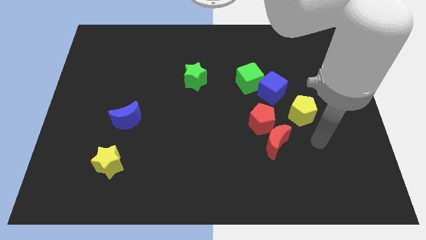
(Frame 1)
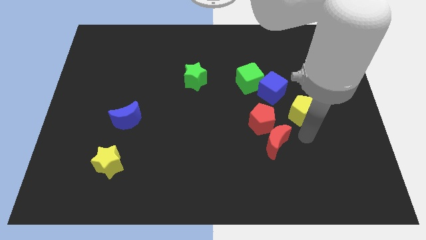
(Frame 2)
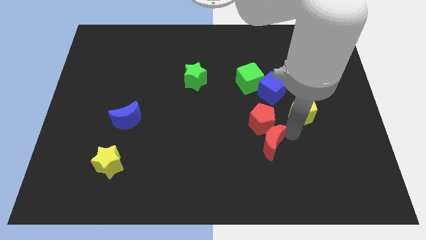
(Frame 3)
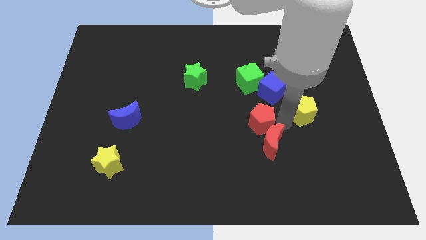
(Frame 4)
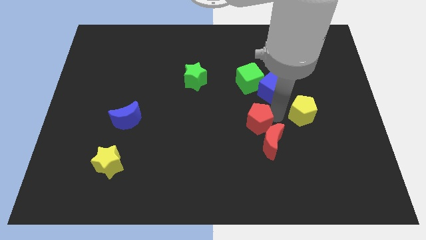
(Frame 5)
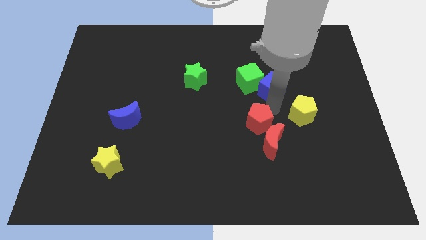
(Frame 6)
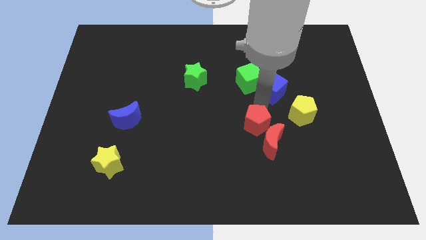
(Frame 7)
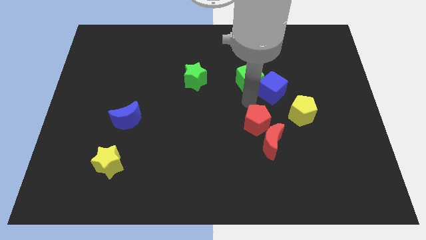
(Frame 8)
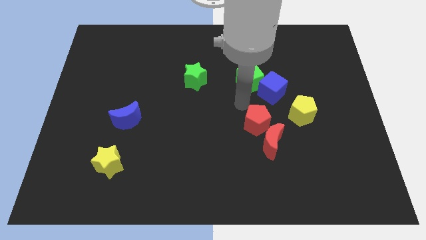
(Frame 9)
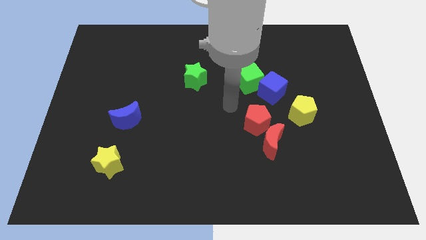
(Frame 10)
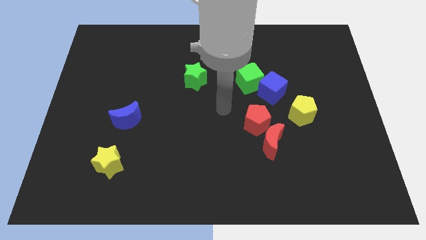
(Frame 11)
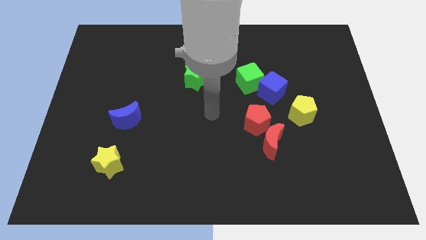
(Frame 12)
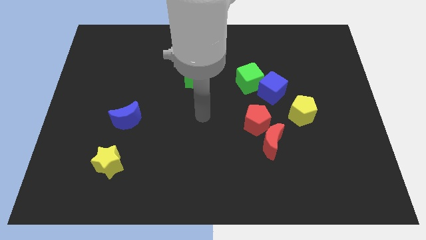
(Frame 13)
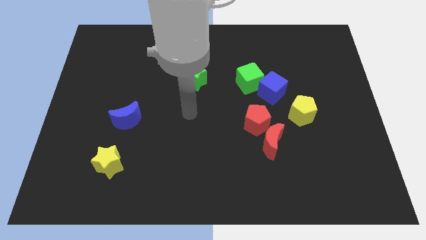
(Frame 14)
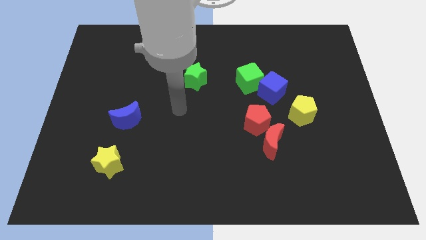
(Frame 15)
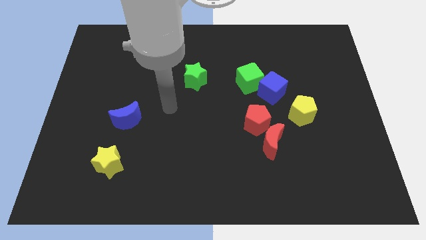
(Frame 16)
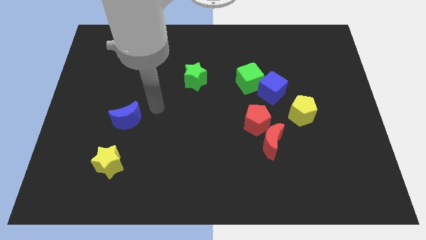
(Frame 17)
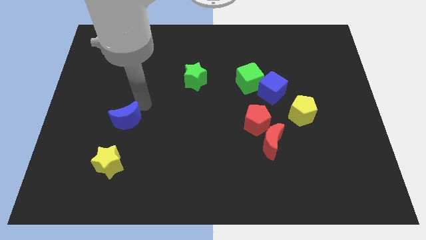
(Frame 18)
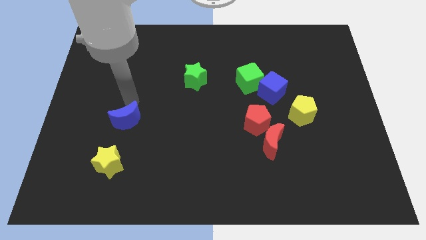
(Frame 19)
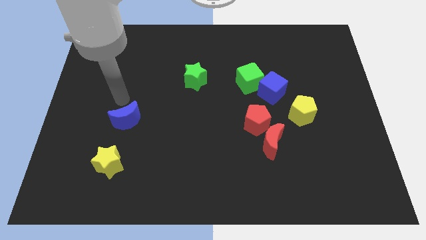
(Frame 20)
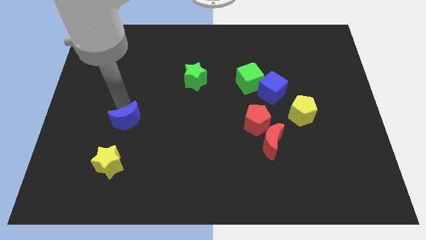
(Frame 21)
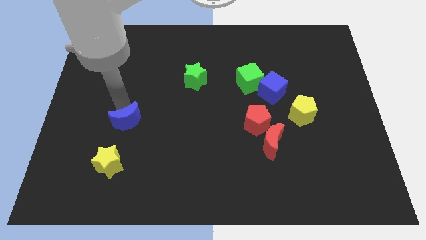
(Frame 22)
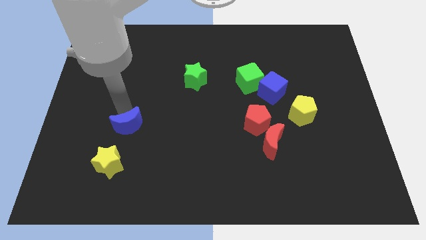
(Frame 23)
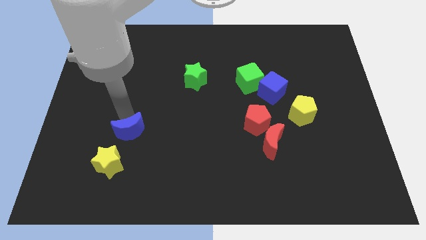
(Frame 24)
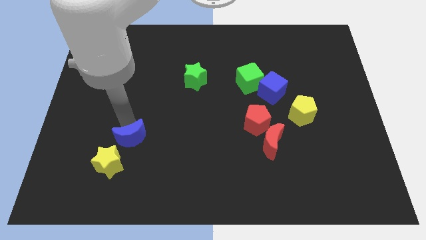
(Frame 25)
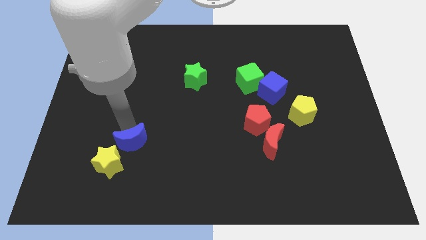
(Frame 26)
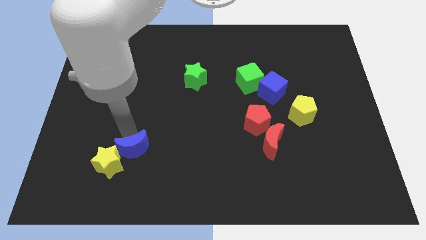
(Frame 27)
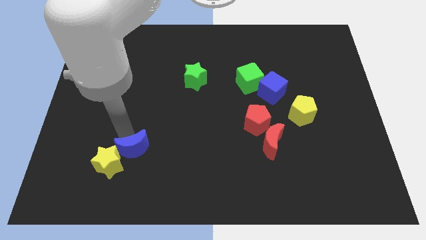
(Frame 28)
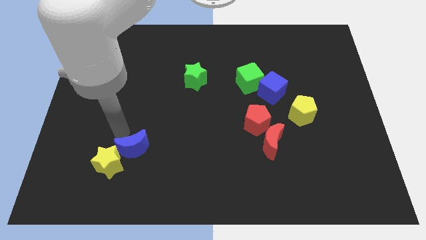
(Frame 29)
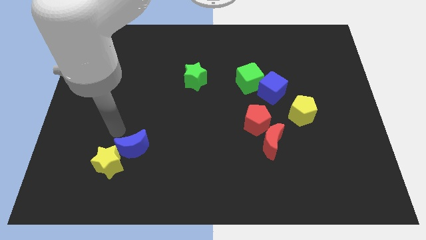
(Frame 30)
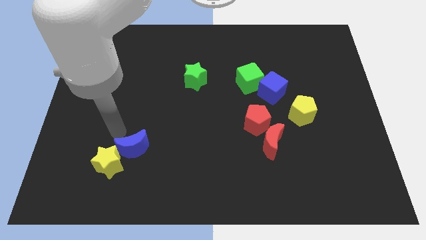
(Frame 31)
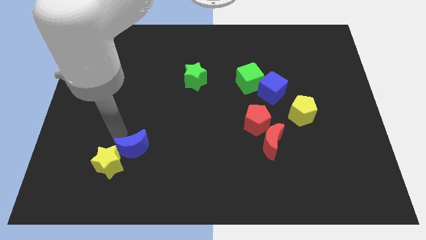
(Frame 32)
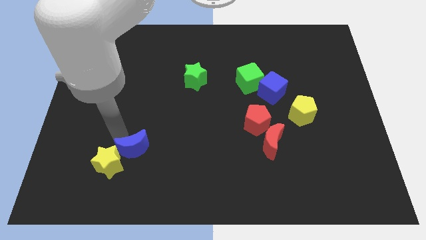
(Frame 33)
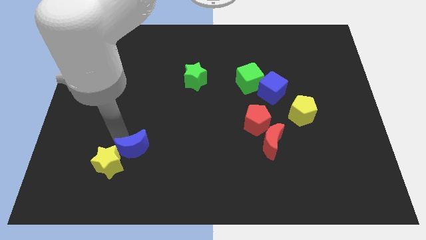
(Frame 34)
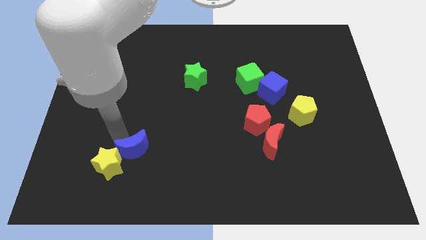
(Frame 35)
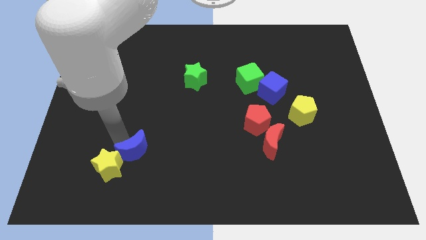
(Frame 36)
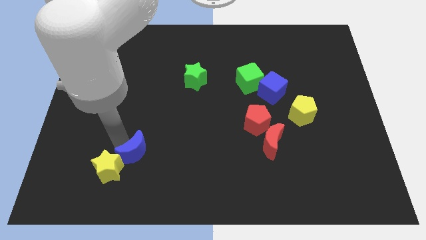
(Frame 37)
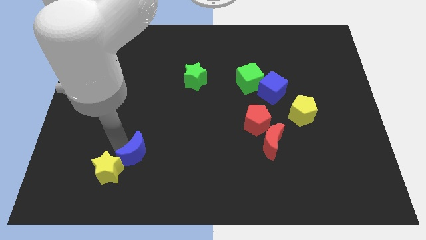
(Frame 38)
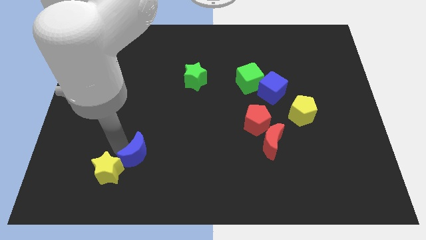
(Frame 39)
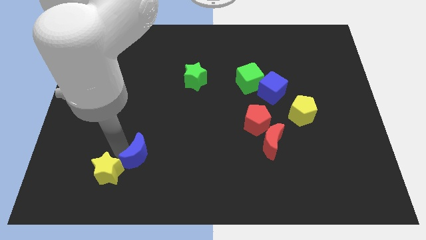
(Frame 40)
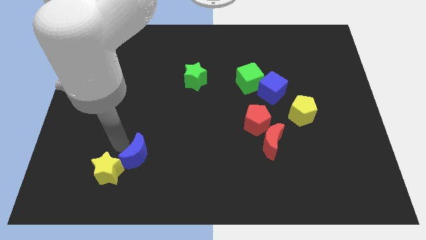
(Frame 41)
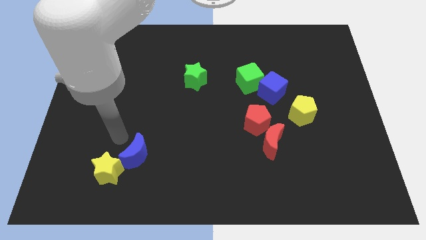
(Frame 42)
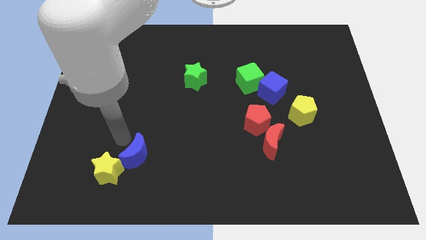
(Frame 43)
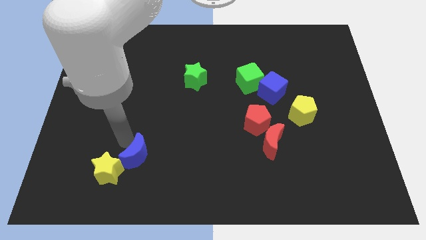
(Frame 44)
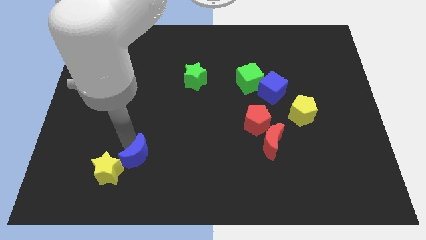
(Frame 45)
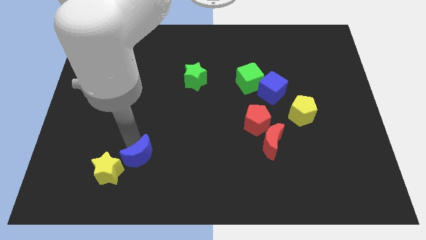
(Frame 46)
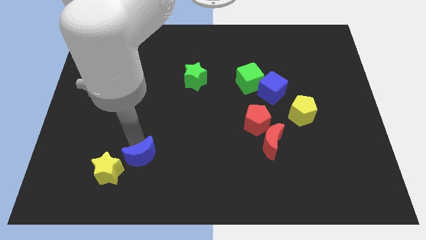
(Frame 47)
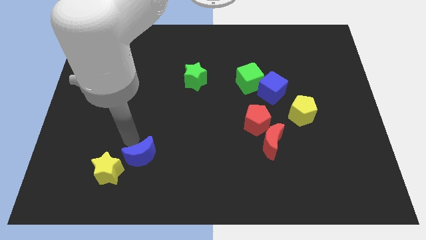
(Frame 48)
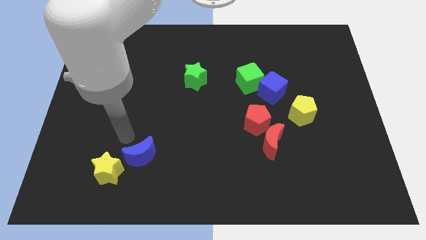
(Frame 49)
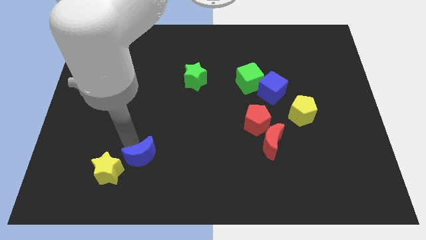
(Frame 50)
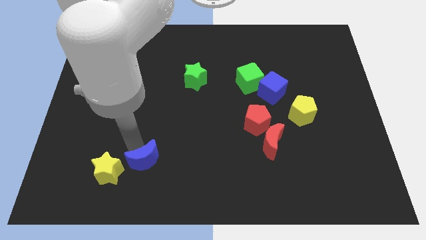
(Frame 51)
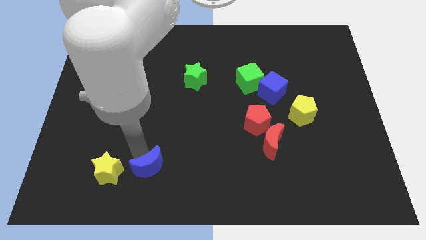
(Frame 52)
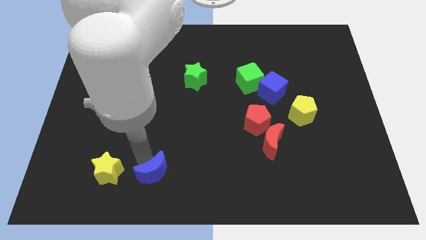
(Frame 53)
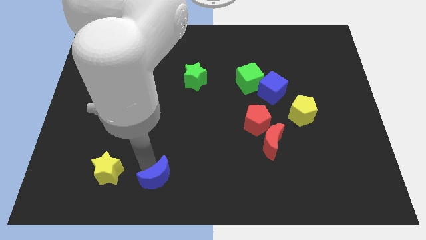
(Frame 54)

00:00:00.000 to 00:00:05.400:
put the blue moon to the bottom side
